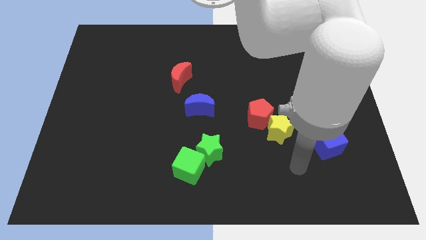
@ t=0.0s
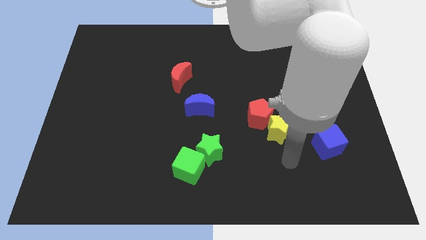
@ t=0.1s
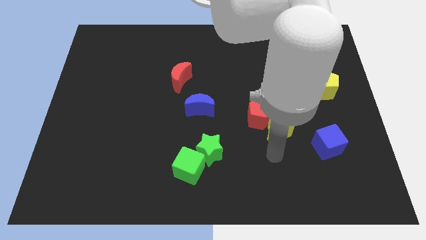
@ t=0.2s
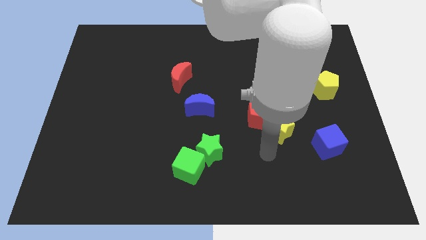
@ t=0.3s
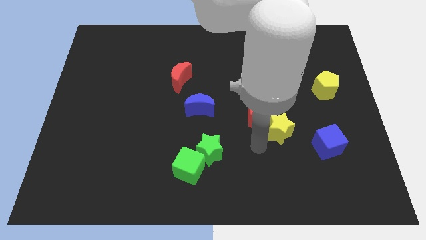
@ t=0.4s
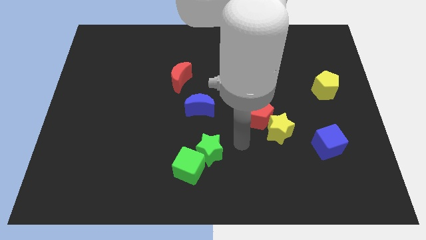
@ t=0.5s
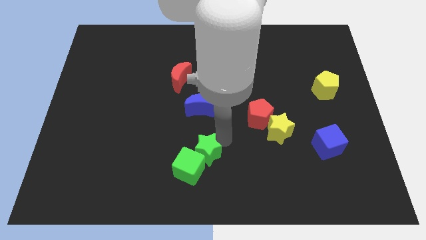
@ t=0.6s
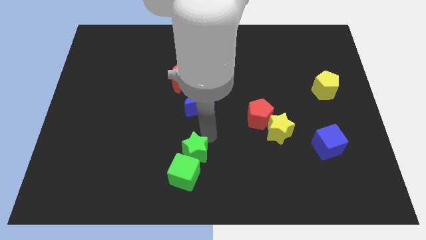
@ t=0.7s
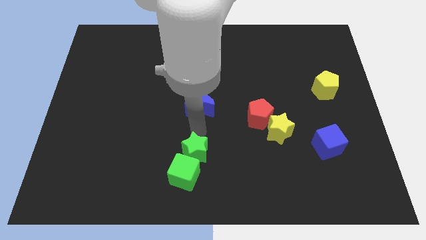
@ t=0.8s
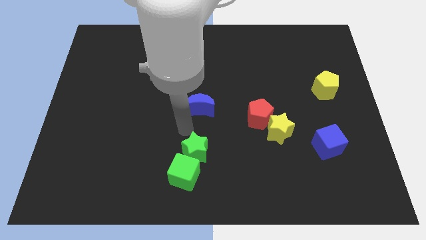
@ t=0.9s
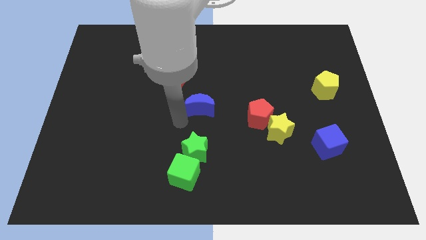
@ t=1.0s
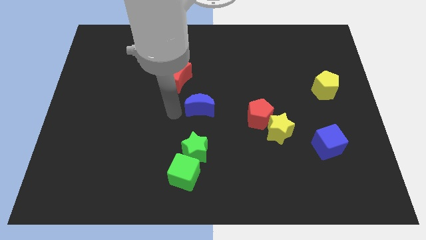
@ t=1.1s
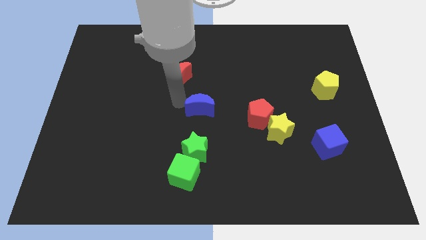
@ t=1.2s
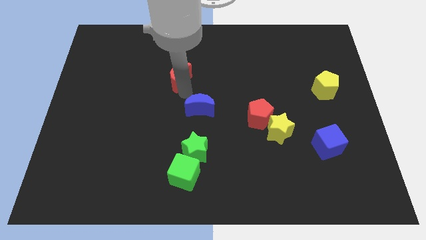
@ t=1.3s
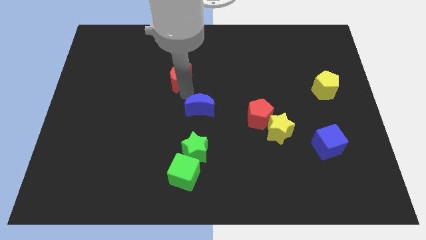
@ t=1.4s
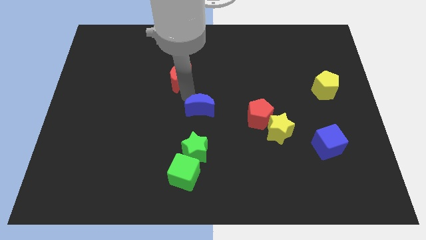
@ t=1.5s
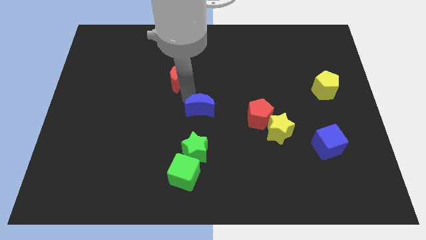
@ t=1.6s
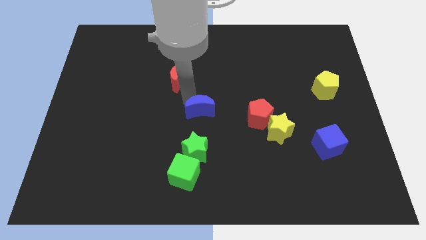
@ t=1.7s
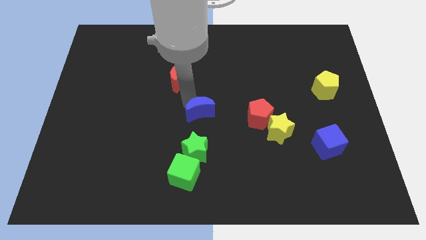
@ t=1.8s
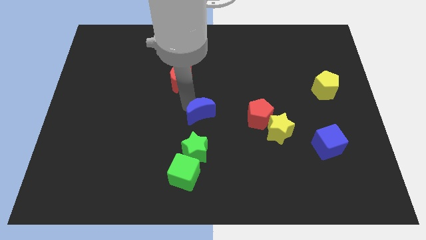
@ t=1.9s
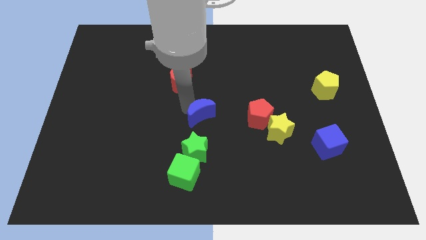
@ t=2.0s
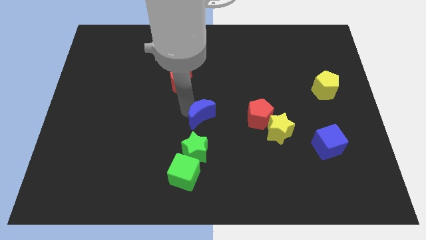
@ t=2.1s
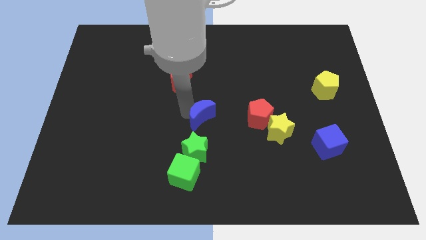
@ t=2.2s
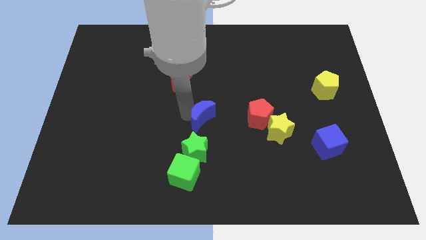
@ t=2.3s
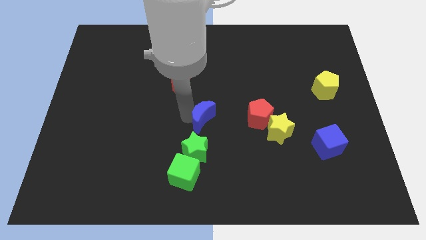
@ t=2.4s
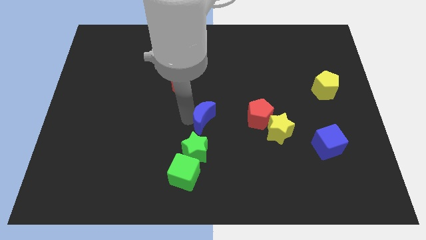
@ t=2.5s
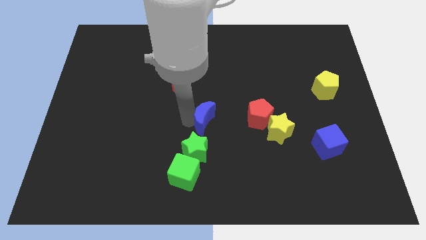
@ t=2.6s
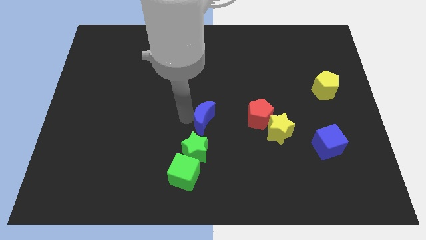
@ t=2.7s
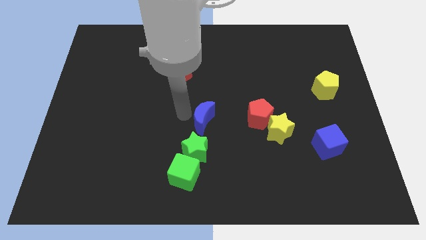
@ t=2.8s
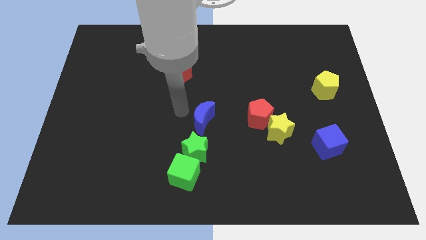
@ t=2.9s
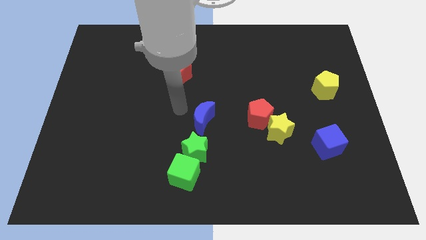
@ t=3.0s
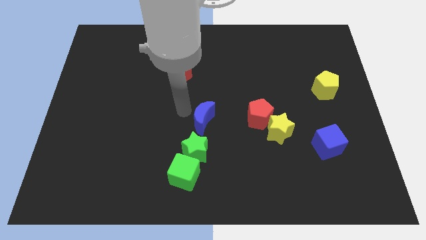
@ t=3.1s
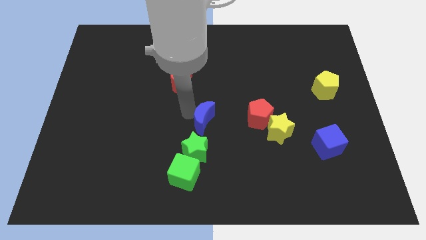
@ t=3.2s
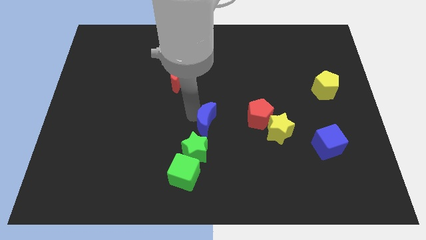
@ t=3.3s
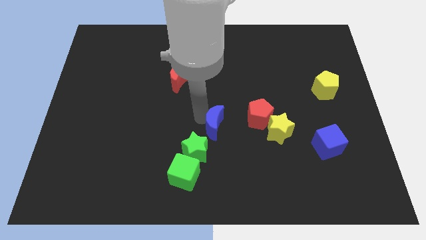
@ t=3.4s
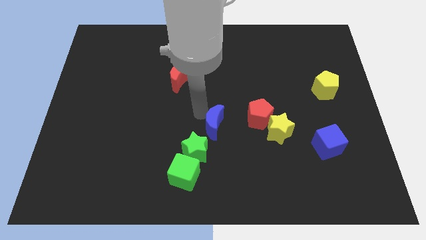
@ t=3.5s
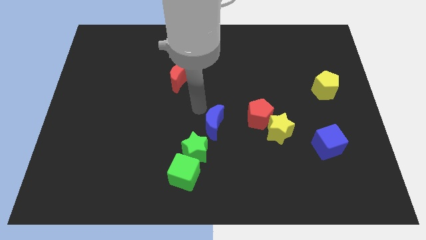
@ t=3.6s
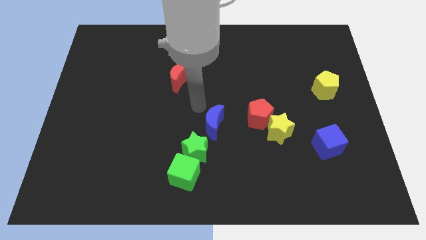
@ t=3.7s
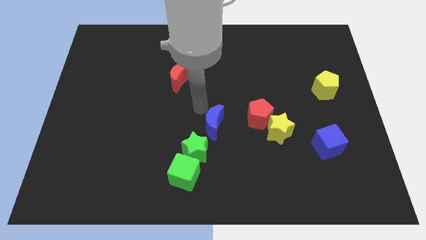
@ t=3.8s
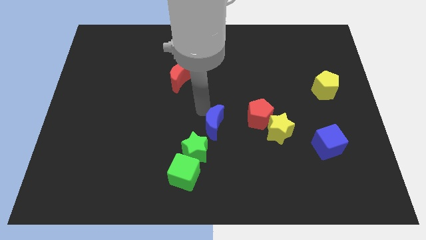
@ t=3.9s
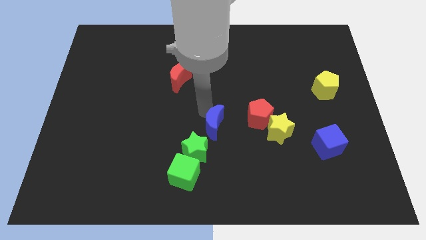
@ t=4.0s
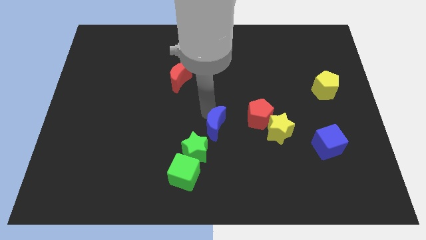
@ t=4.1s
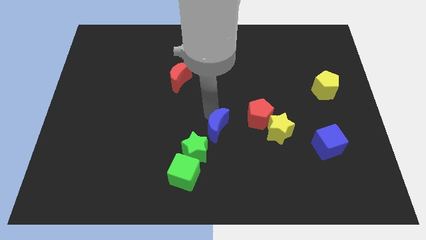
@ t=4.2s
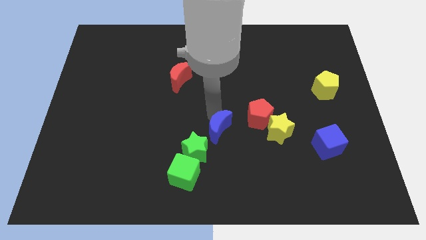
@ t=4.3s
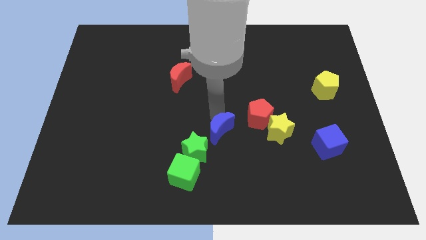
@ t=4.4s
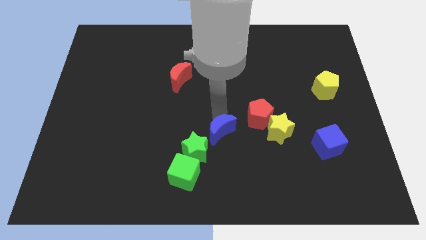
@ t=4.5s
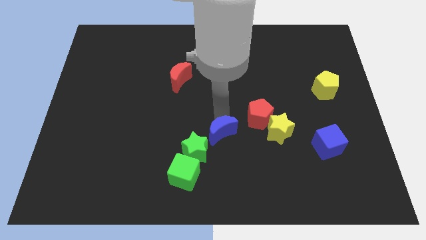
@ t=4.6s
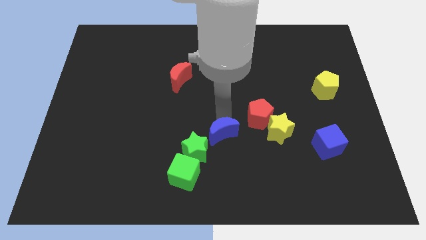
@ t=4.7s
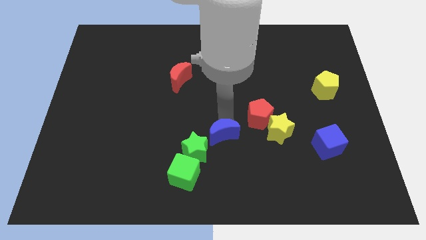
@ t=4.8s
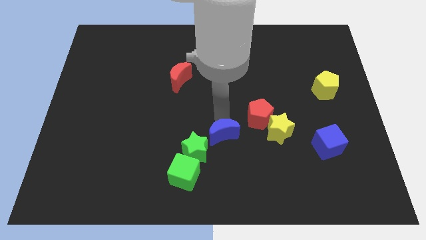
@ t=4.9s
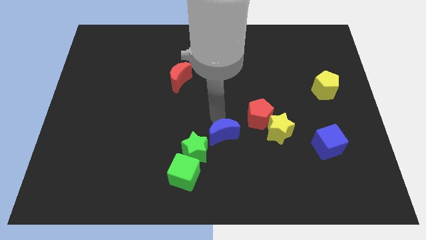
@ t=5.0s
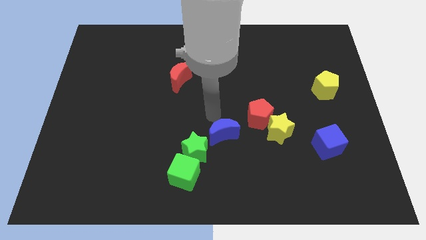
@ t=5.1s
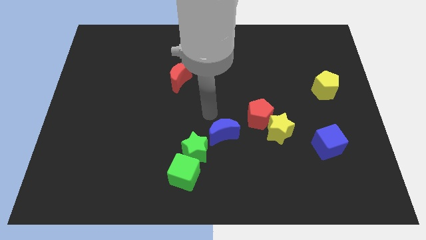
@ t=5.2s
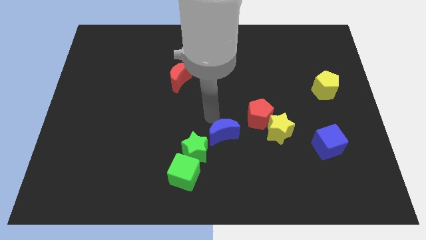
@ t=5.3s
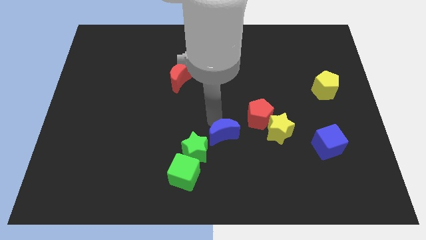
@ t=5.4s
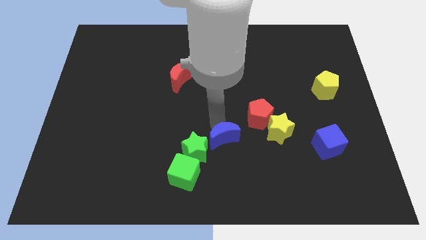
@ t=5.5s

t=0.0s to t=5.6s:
move the blue moon down a little bit

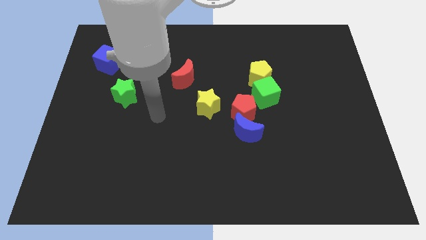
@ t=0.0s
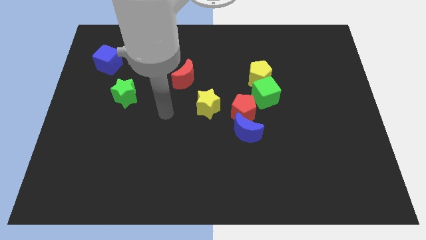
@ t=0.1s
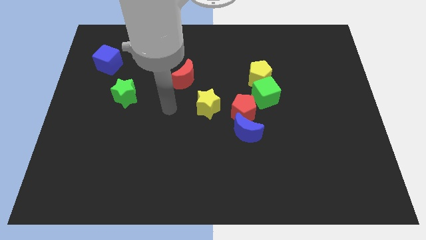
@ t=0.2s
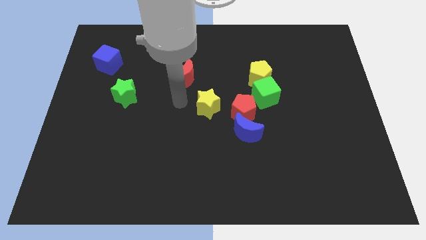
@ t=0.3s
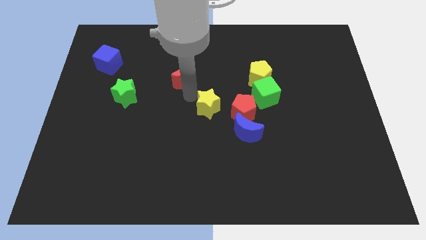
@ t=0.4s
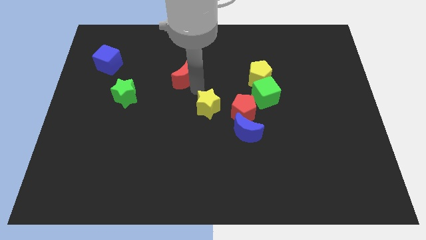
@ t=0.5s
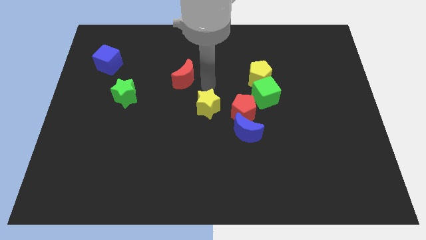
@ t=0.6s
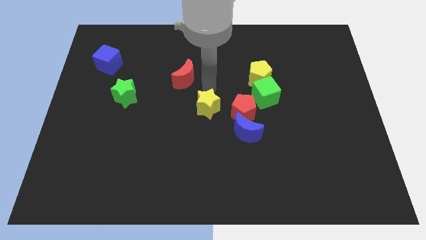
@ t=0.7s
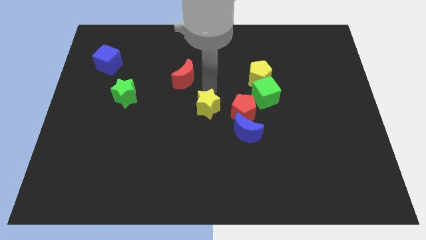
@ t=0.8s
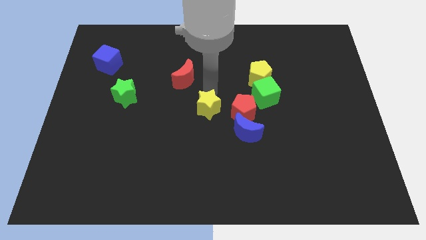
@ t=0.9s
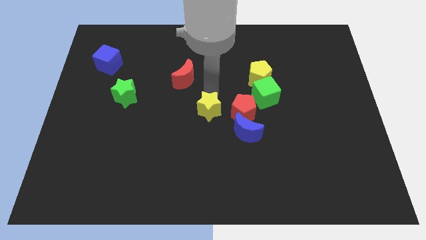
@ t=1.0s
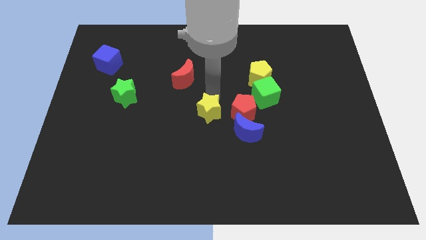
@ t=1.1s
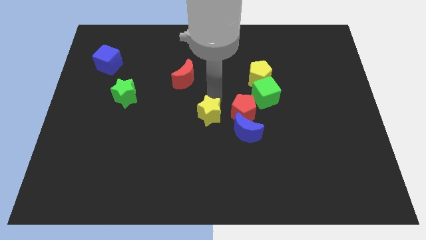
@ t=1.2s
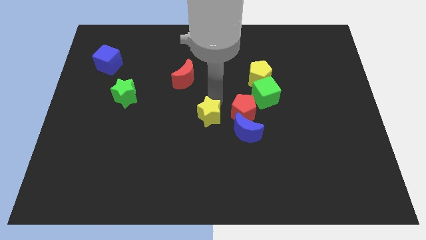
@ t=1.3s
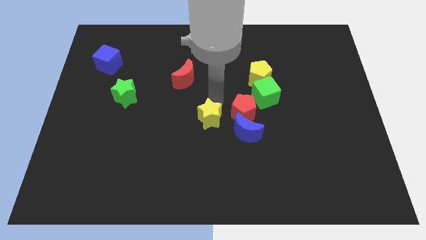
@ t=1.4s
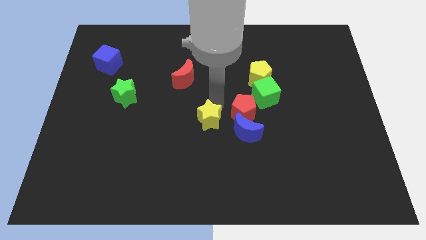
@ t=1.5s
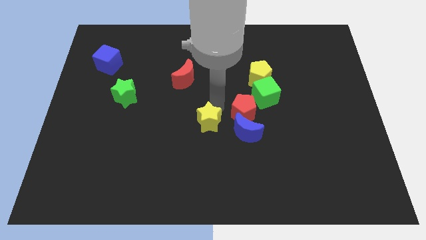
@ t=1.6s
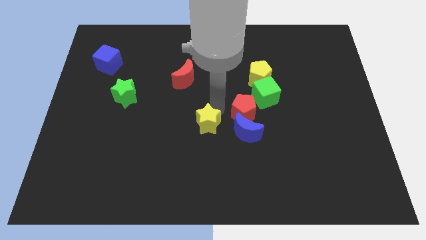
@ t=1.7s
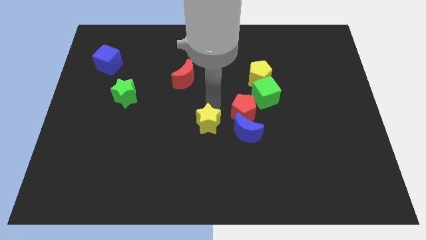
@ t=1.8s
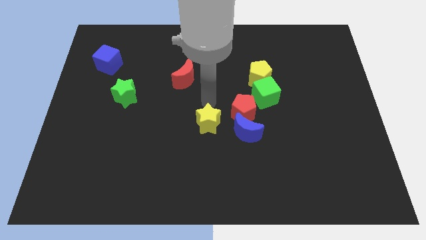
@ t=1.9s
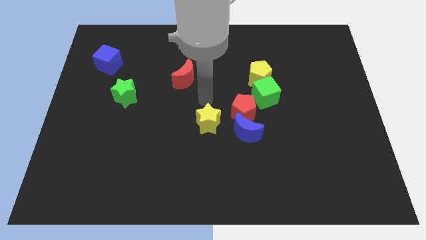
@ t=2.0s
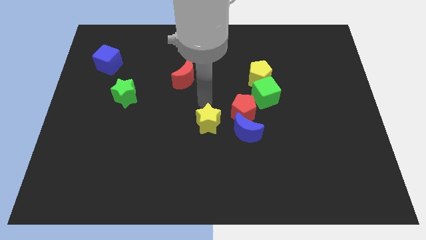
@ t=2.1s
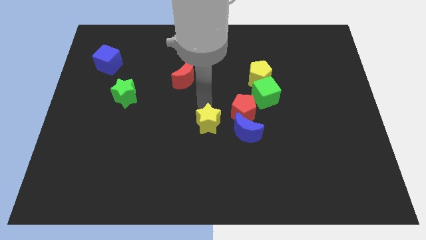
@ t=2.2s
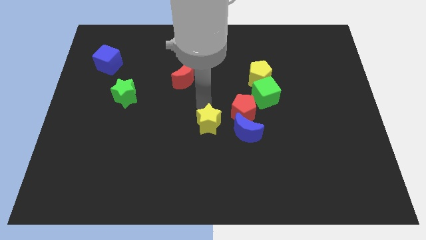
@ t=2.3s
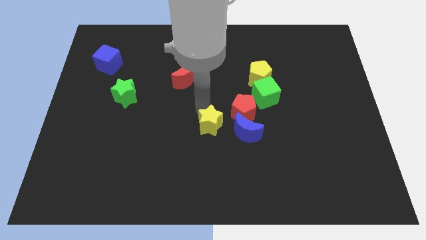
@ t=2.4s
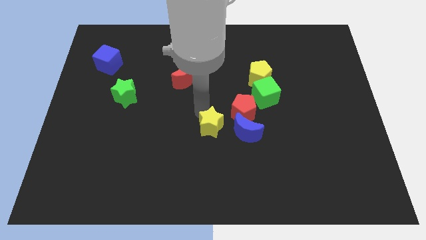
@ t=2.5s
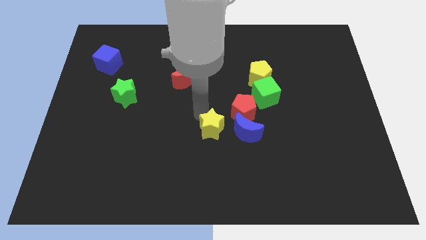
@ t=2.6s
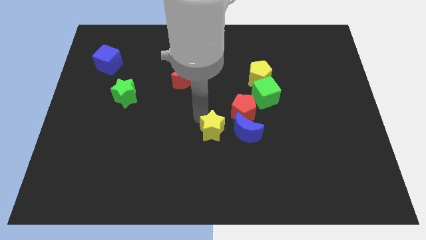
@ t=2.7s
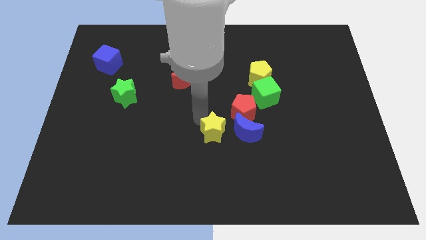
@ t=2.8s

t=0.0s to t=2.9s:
slightly move the yellow star downwards
